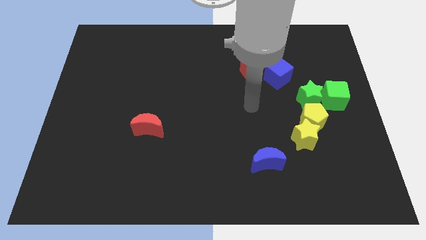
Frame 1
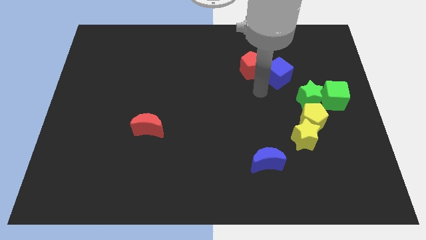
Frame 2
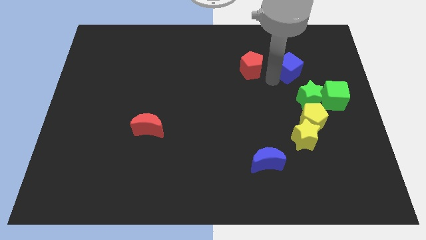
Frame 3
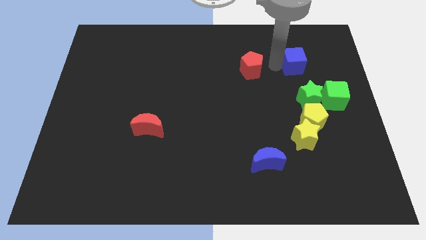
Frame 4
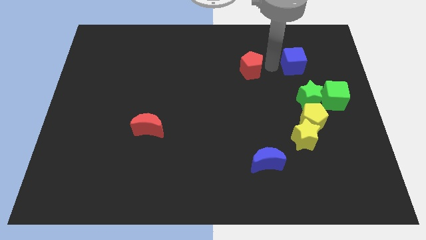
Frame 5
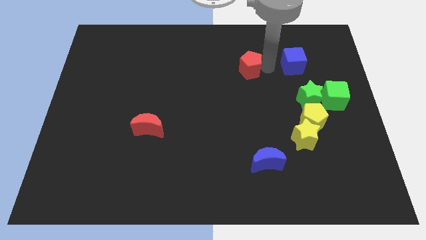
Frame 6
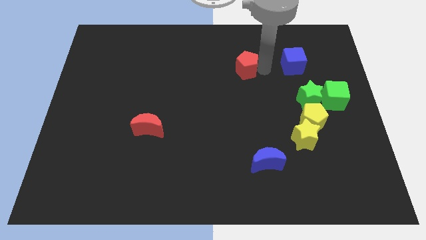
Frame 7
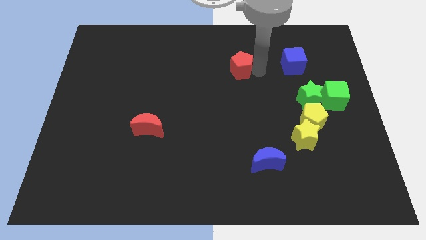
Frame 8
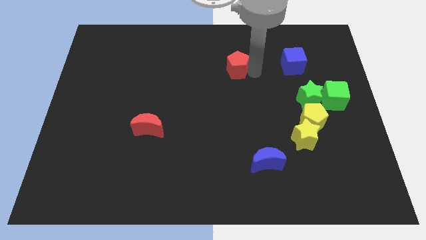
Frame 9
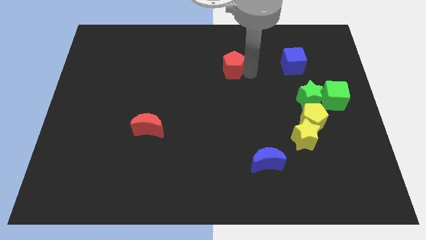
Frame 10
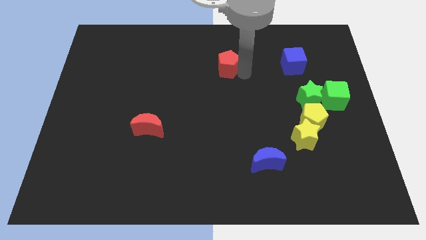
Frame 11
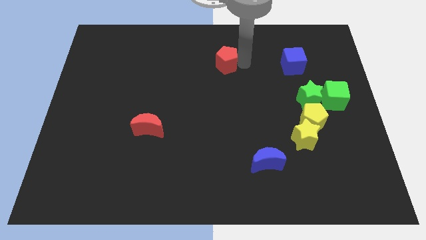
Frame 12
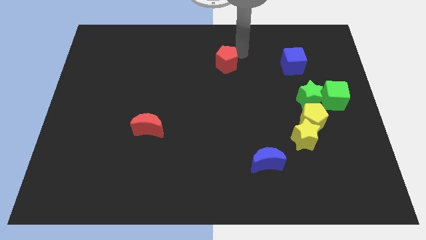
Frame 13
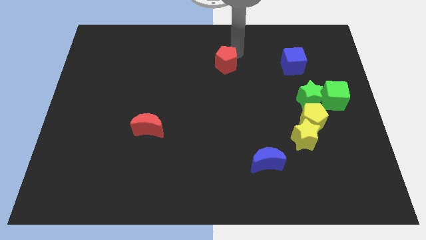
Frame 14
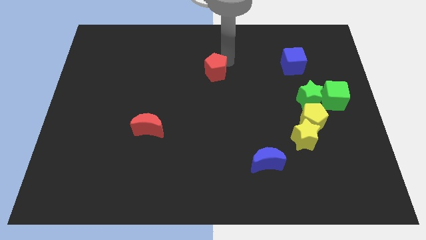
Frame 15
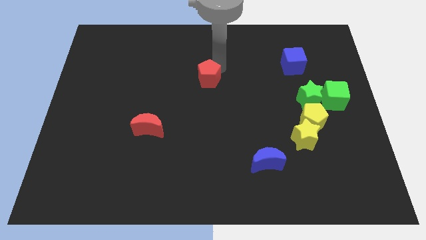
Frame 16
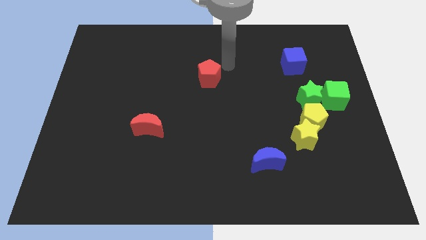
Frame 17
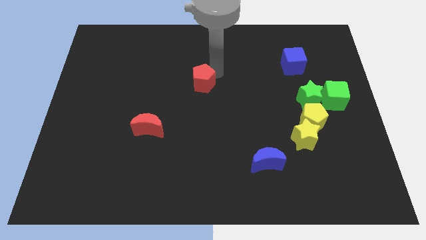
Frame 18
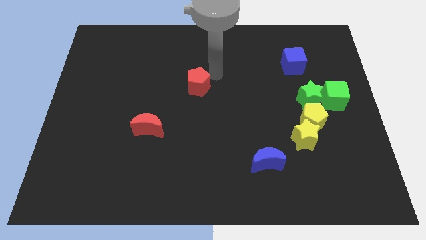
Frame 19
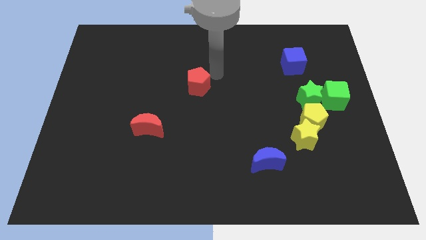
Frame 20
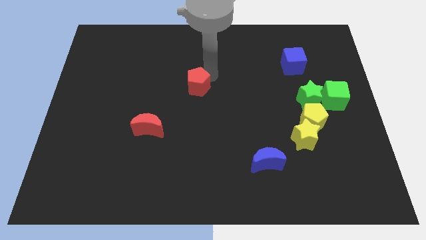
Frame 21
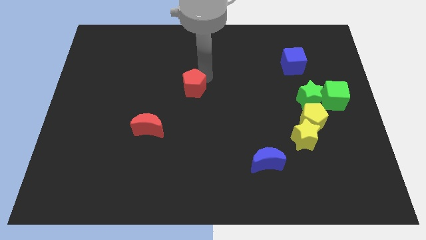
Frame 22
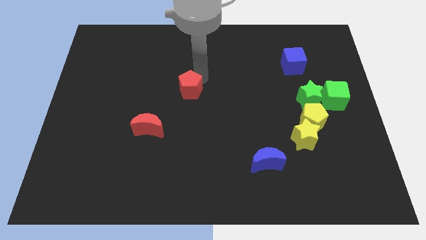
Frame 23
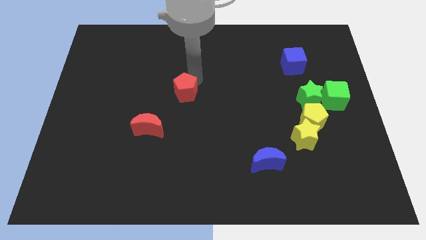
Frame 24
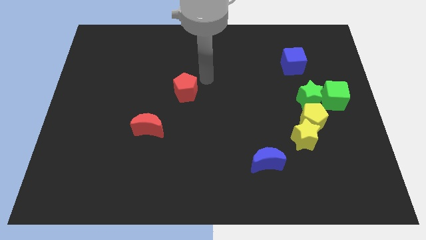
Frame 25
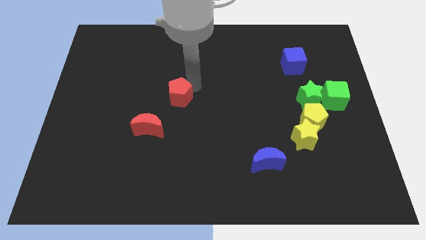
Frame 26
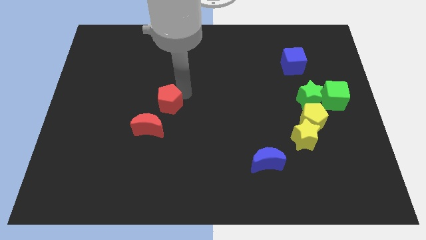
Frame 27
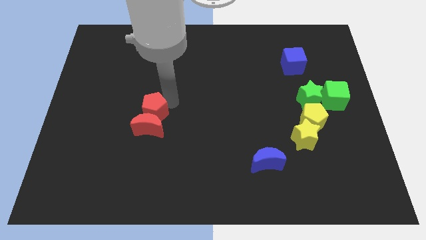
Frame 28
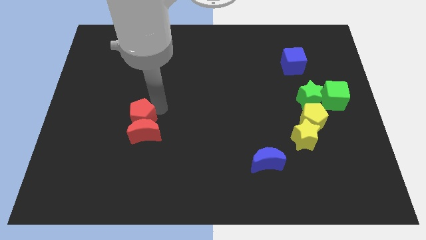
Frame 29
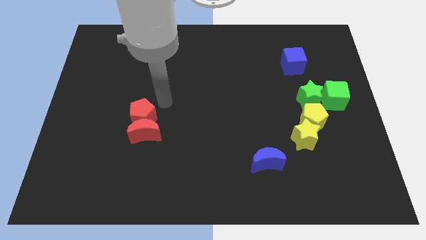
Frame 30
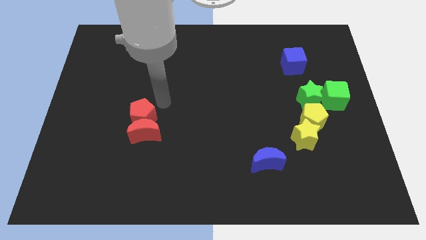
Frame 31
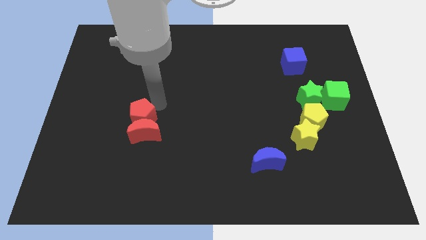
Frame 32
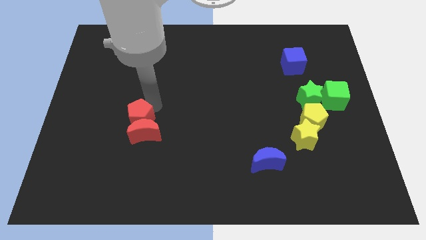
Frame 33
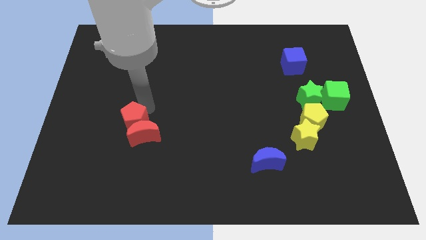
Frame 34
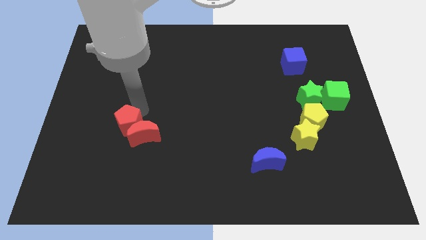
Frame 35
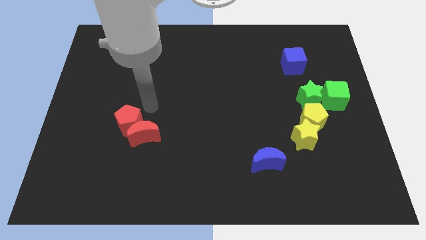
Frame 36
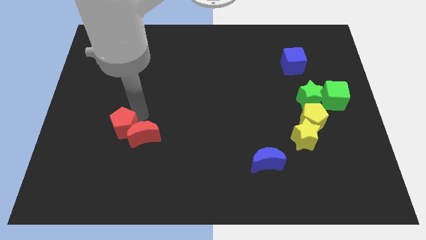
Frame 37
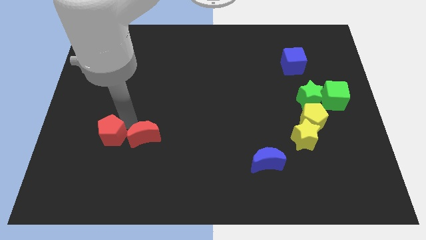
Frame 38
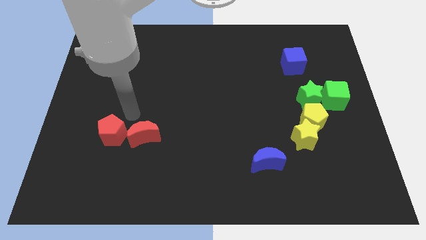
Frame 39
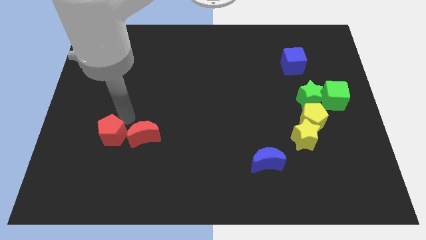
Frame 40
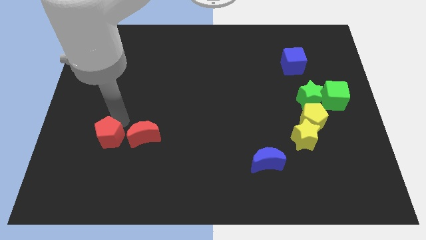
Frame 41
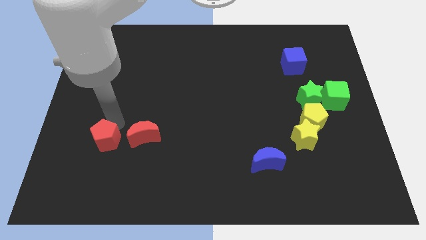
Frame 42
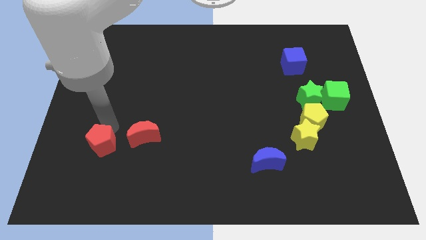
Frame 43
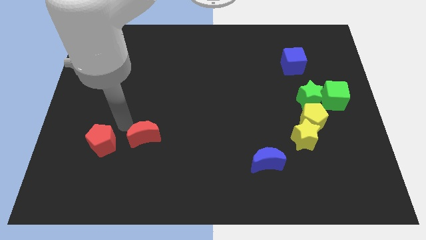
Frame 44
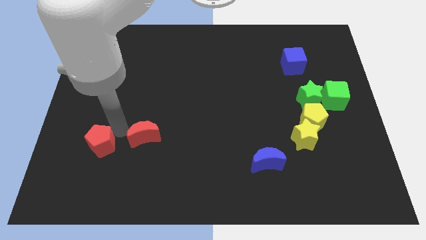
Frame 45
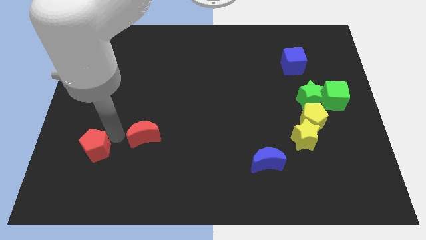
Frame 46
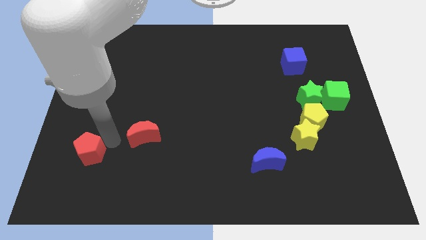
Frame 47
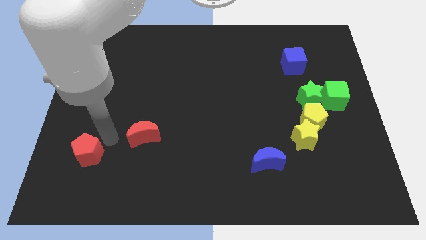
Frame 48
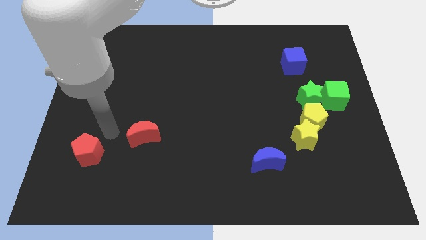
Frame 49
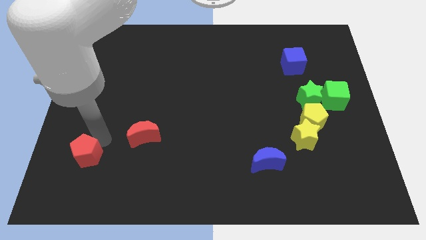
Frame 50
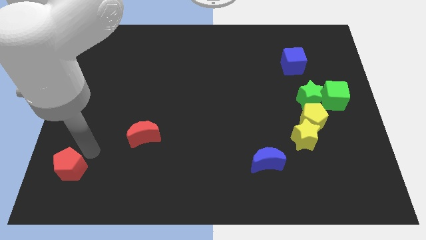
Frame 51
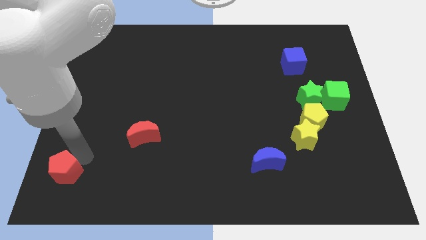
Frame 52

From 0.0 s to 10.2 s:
move the red pentagon to the bottom left of the board

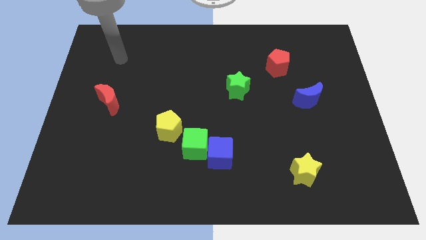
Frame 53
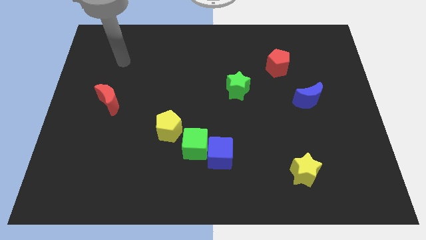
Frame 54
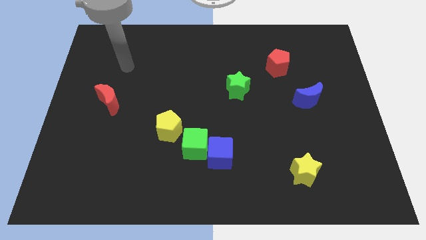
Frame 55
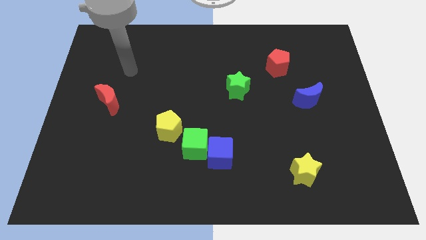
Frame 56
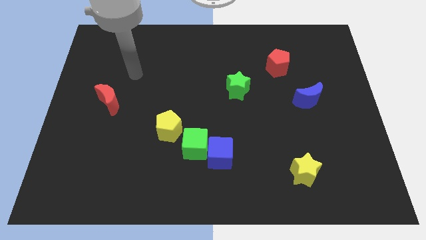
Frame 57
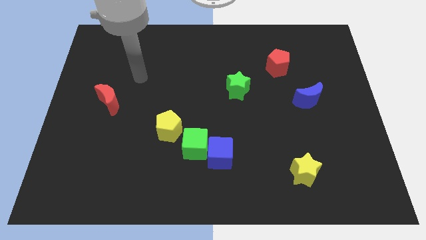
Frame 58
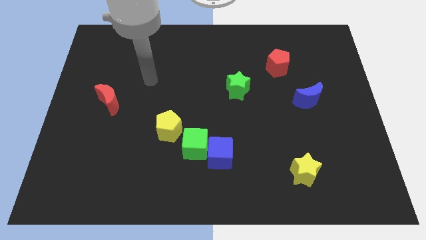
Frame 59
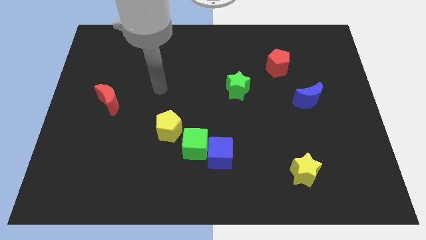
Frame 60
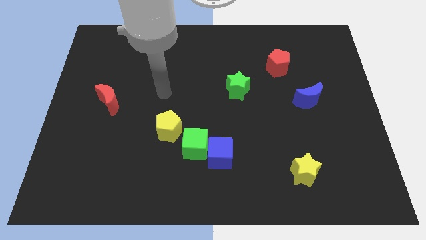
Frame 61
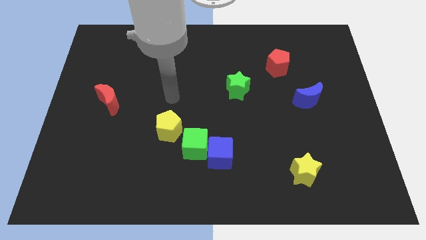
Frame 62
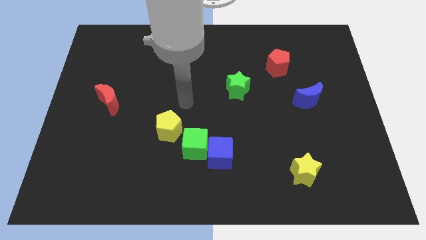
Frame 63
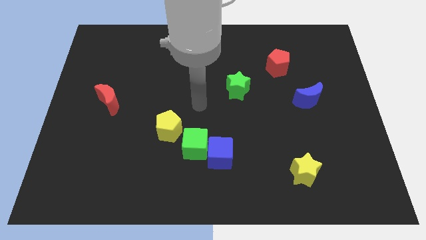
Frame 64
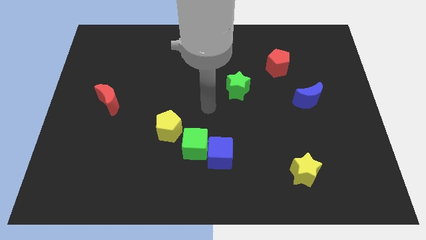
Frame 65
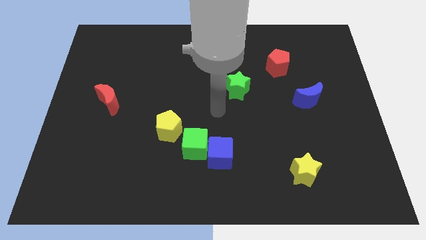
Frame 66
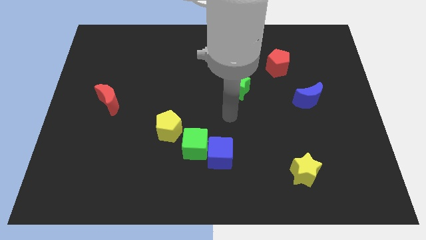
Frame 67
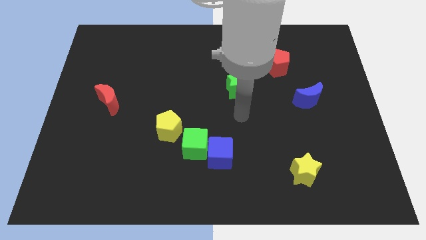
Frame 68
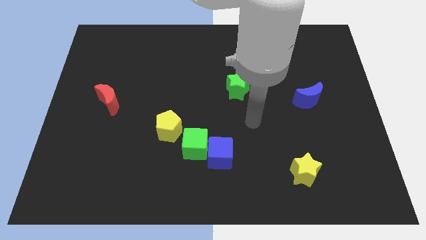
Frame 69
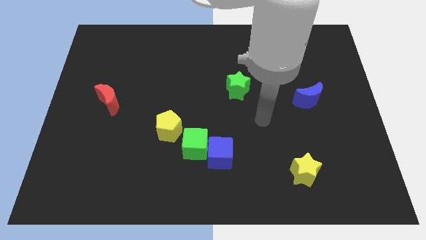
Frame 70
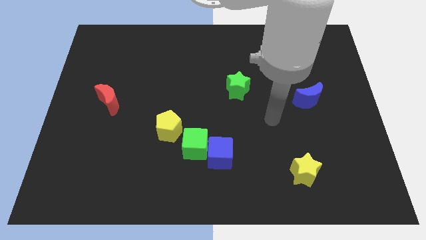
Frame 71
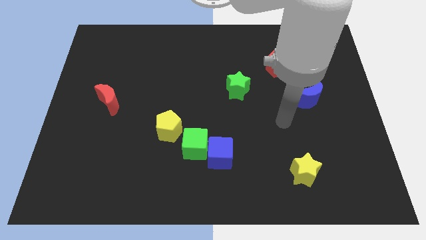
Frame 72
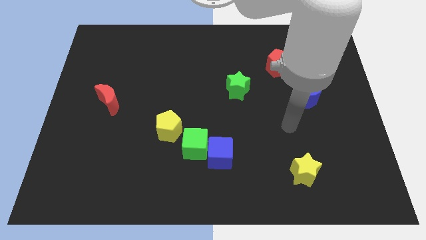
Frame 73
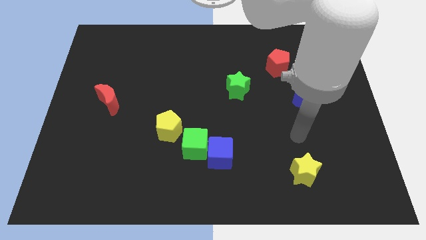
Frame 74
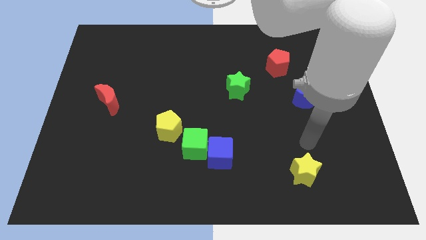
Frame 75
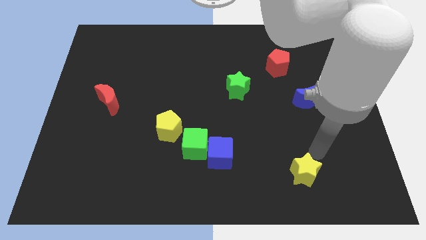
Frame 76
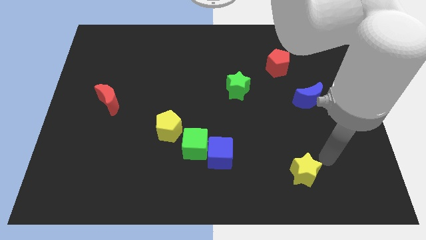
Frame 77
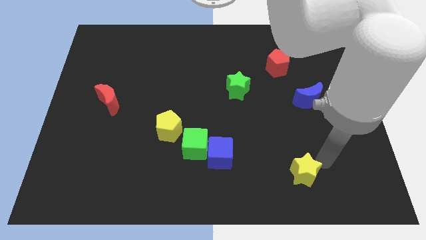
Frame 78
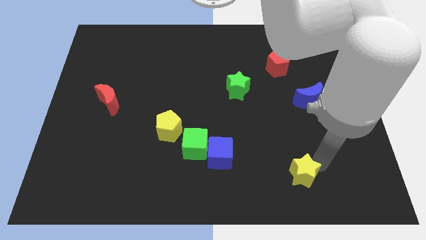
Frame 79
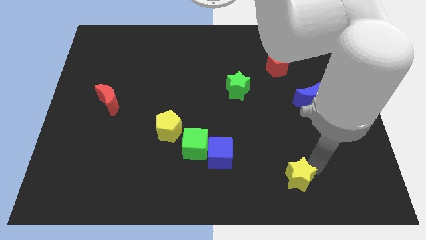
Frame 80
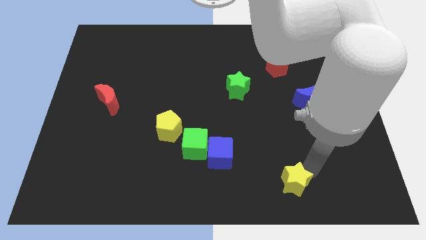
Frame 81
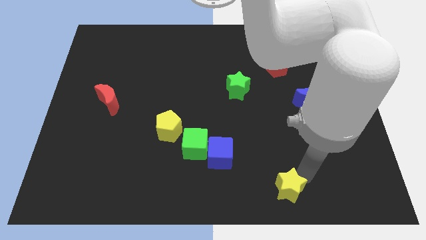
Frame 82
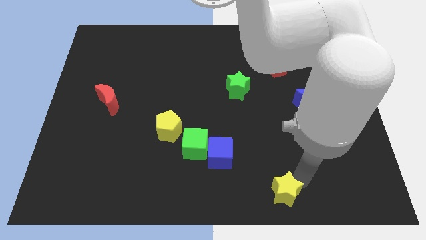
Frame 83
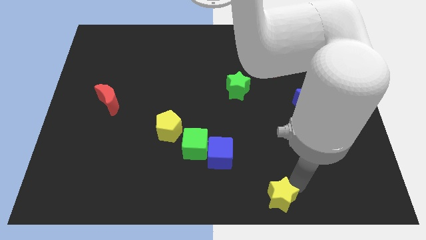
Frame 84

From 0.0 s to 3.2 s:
slide the yellow star to the bottom
